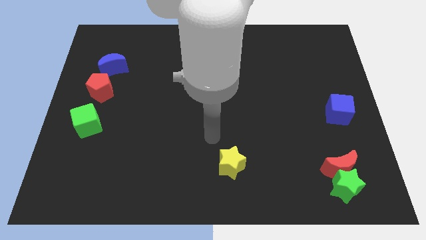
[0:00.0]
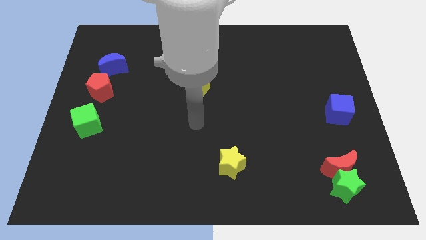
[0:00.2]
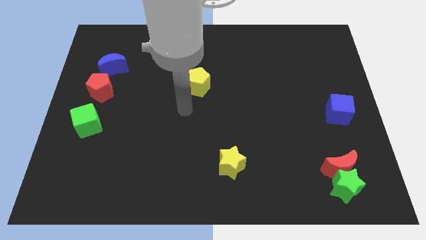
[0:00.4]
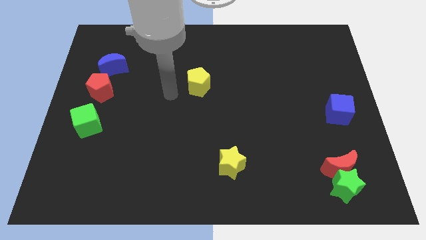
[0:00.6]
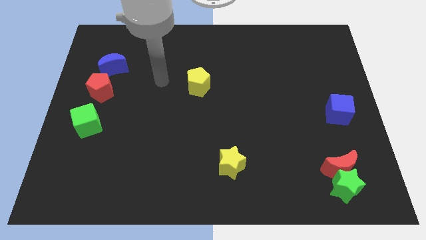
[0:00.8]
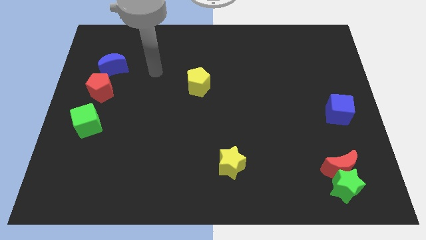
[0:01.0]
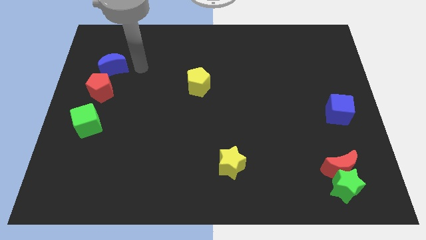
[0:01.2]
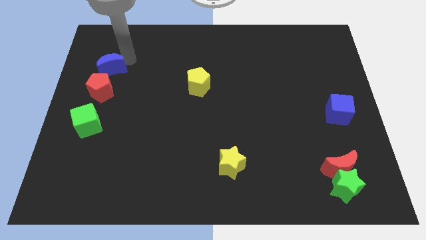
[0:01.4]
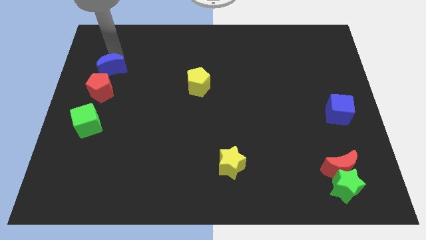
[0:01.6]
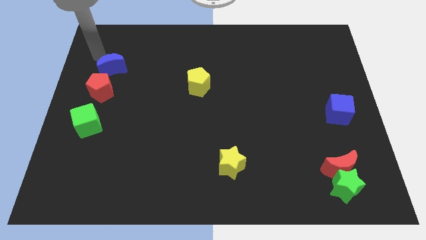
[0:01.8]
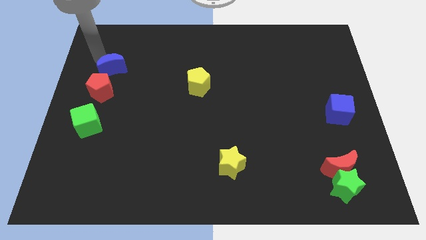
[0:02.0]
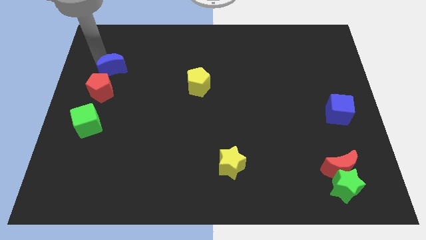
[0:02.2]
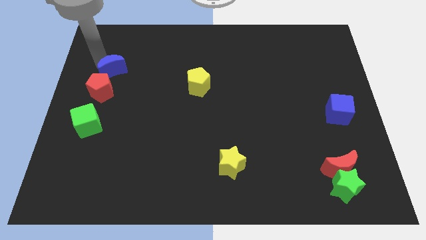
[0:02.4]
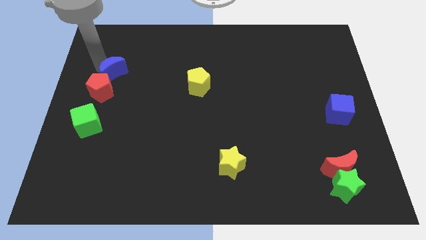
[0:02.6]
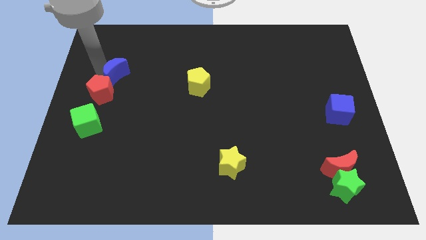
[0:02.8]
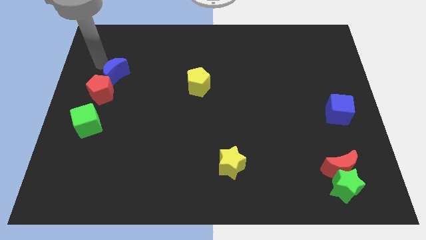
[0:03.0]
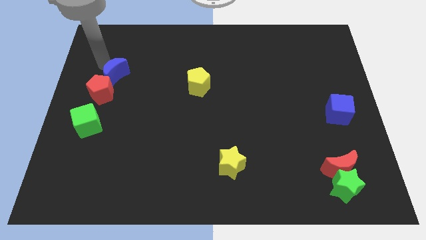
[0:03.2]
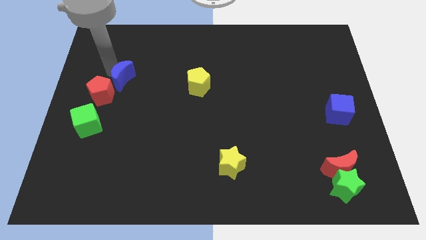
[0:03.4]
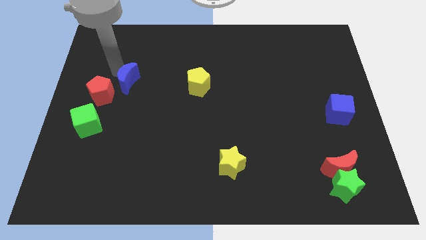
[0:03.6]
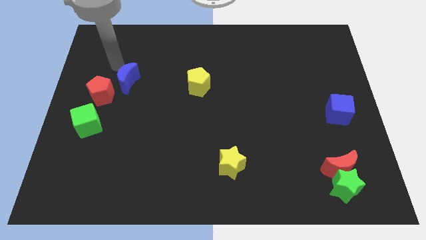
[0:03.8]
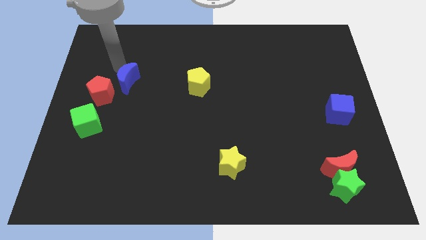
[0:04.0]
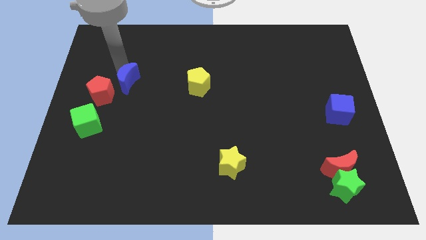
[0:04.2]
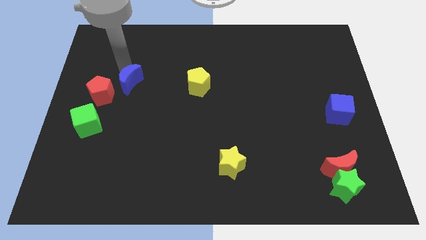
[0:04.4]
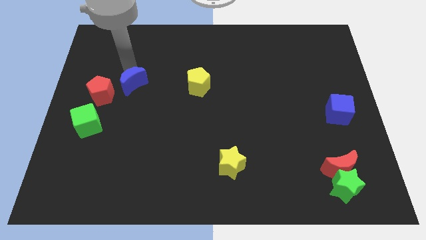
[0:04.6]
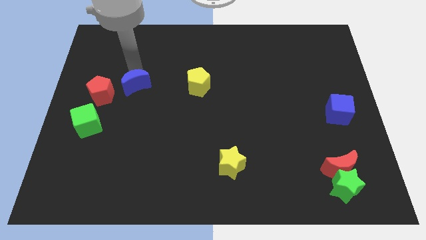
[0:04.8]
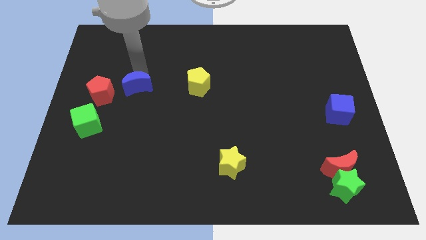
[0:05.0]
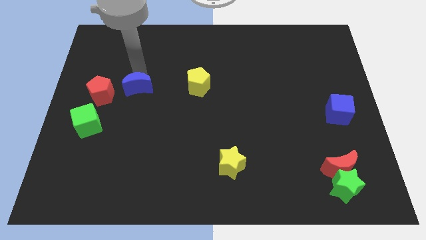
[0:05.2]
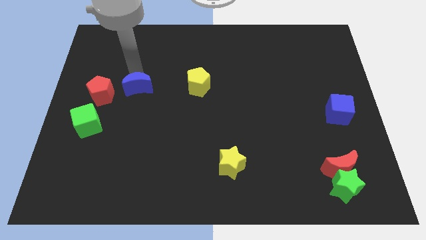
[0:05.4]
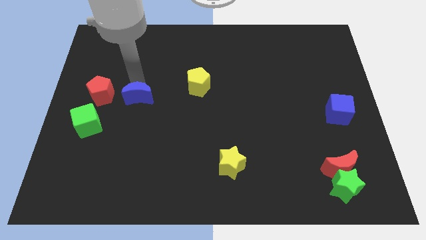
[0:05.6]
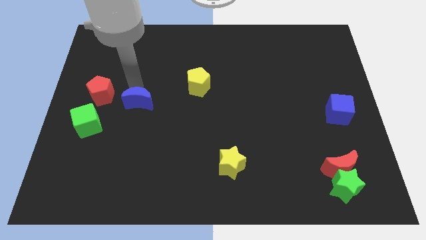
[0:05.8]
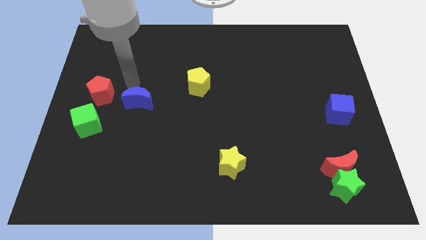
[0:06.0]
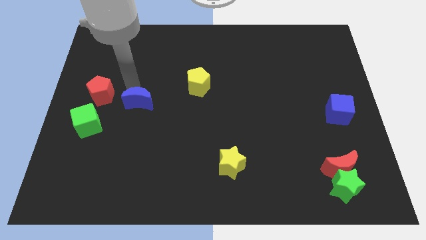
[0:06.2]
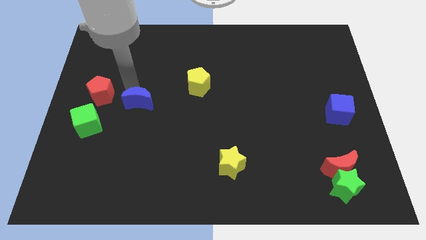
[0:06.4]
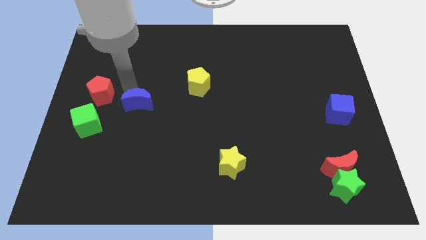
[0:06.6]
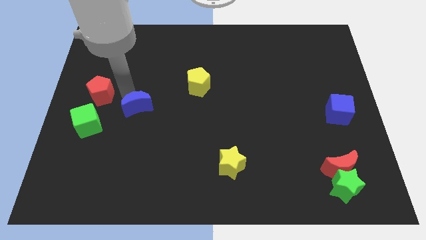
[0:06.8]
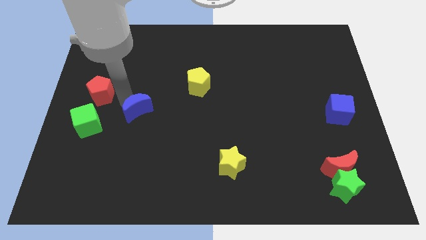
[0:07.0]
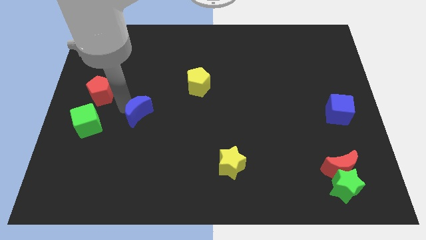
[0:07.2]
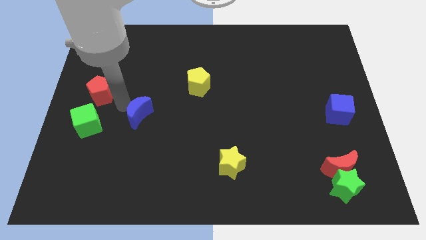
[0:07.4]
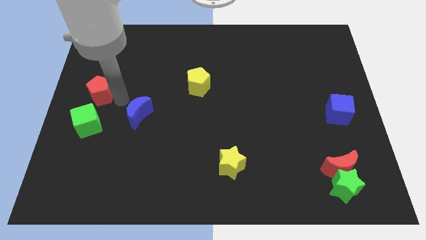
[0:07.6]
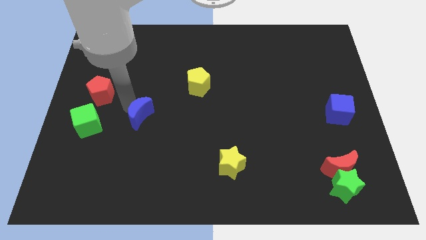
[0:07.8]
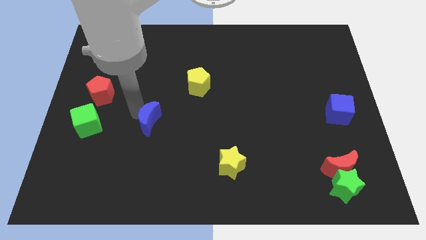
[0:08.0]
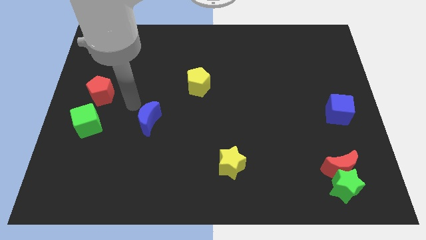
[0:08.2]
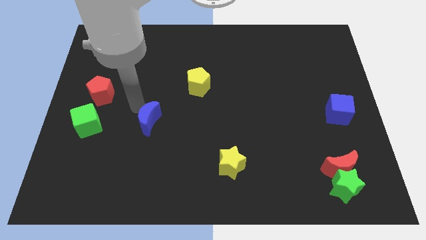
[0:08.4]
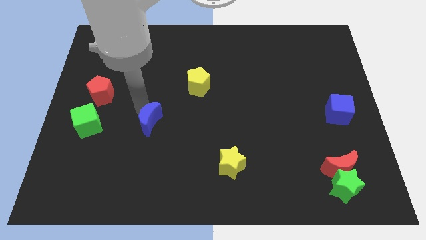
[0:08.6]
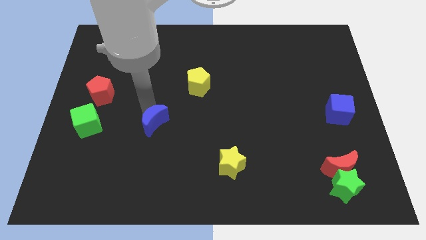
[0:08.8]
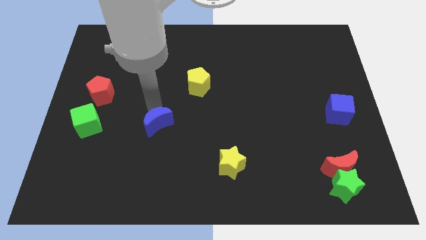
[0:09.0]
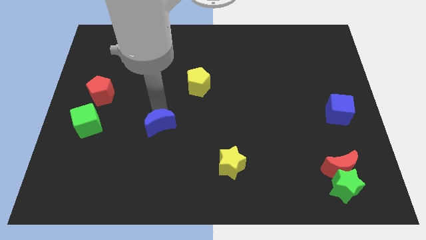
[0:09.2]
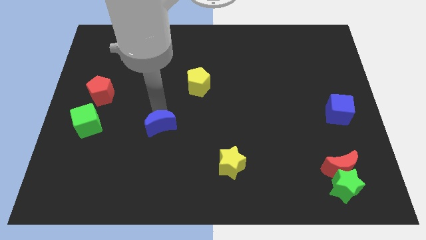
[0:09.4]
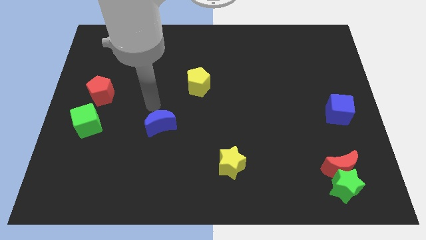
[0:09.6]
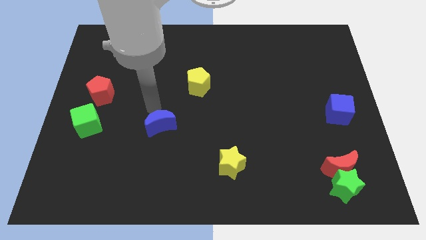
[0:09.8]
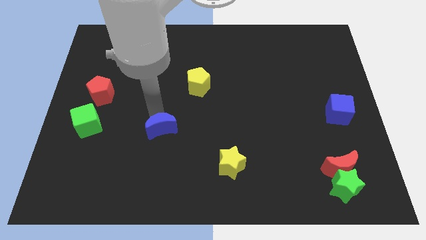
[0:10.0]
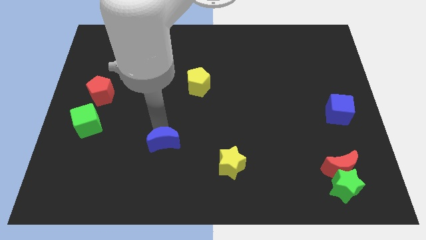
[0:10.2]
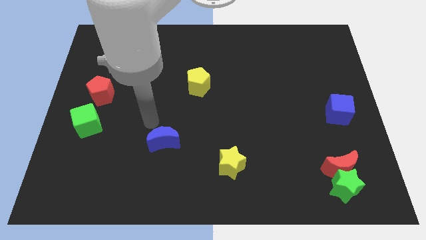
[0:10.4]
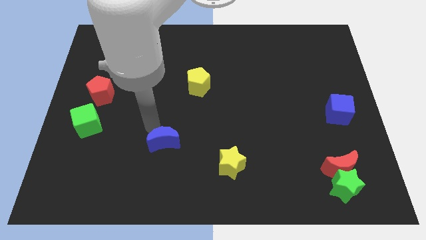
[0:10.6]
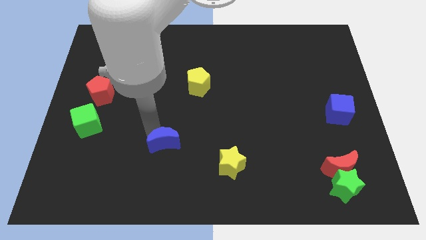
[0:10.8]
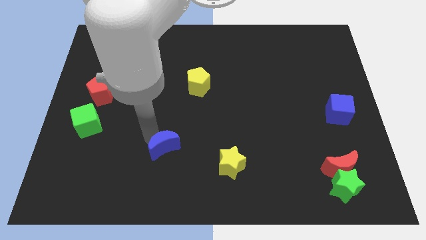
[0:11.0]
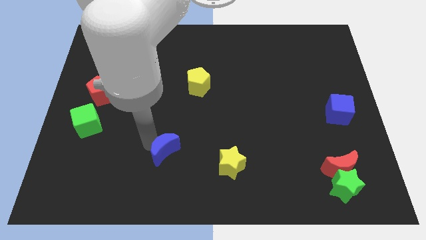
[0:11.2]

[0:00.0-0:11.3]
push the blue moon to the left side of the yellow star

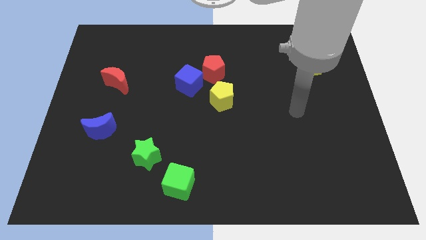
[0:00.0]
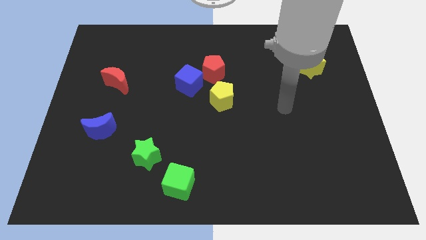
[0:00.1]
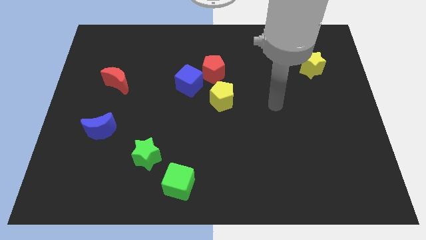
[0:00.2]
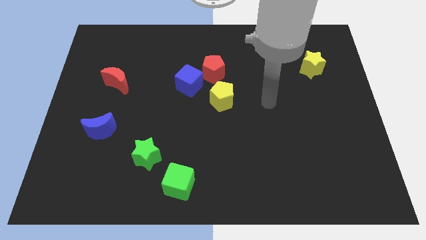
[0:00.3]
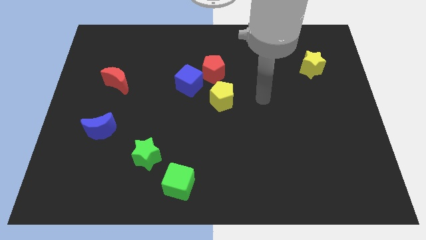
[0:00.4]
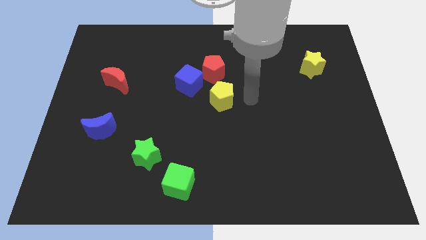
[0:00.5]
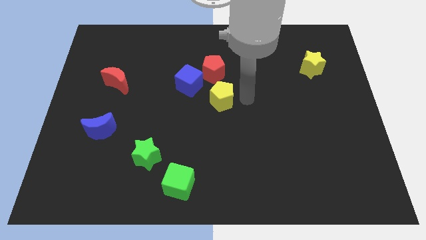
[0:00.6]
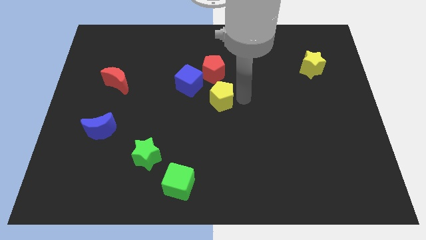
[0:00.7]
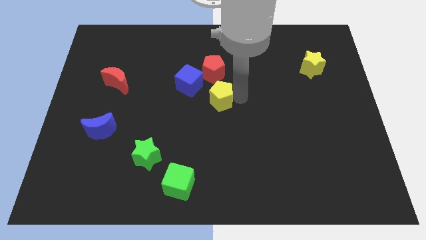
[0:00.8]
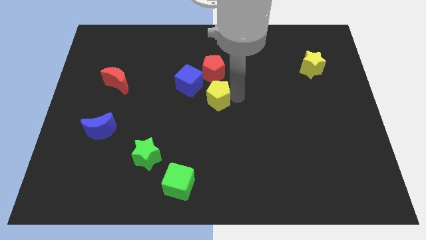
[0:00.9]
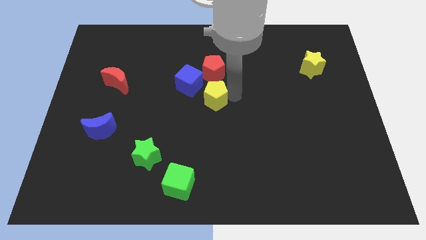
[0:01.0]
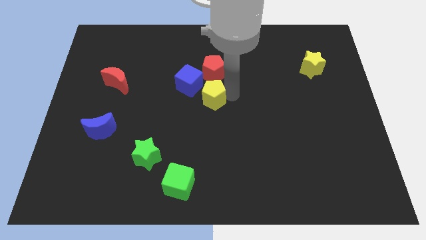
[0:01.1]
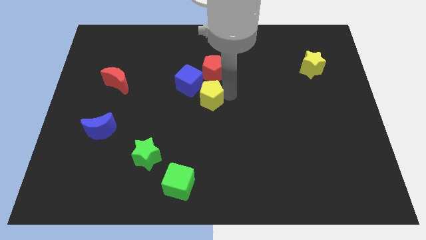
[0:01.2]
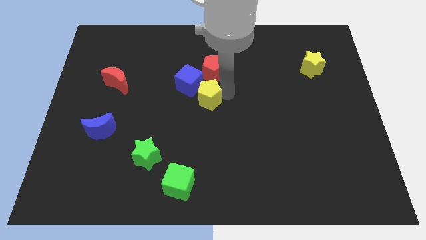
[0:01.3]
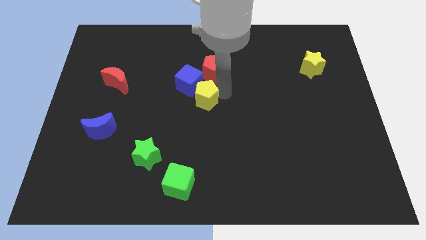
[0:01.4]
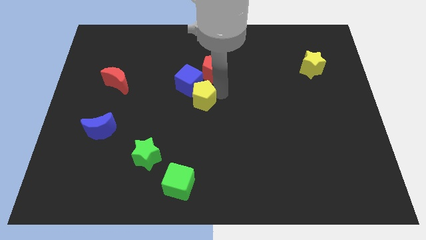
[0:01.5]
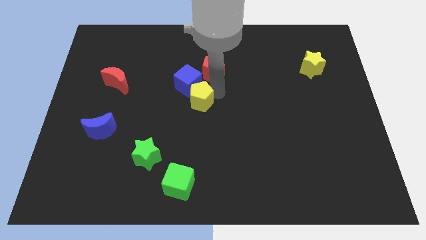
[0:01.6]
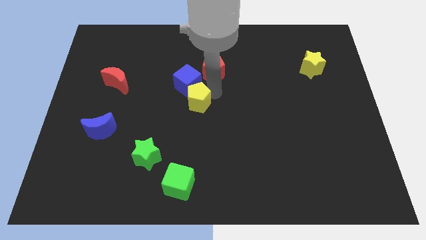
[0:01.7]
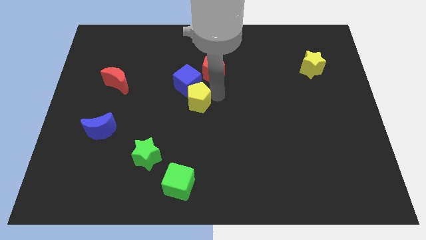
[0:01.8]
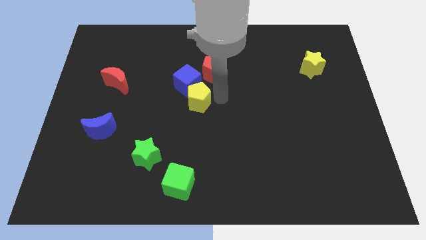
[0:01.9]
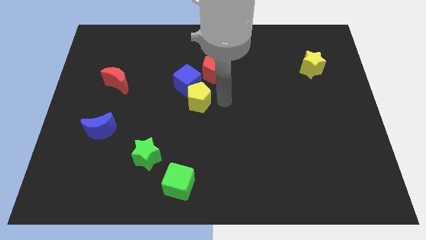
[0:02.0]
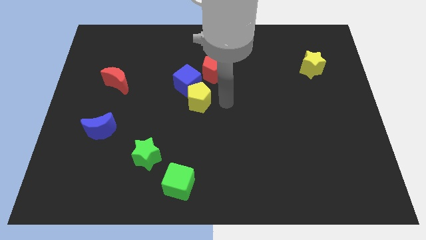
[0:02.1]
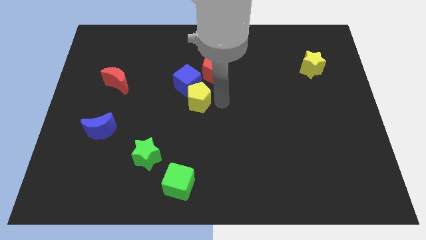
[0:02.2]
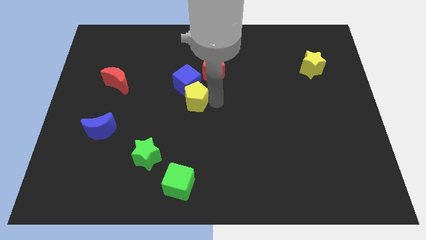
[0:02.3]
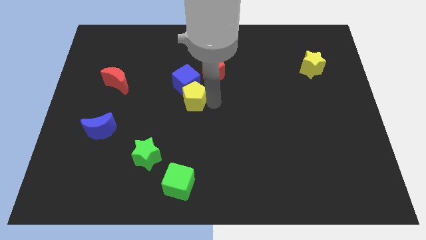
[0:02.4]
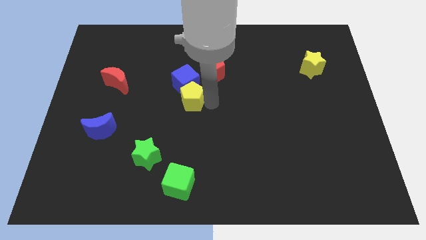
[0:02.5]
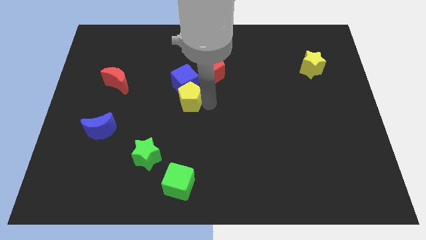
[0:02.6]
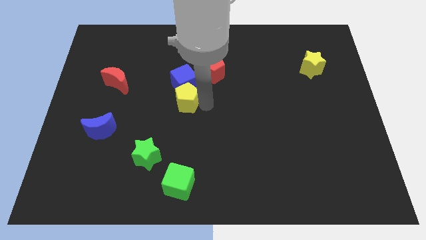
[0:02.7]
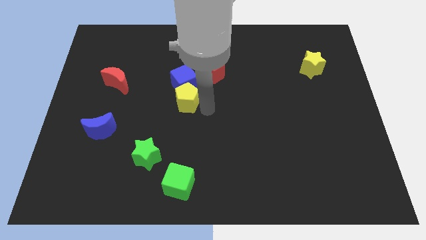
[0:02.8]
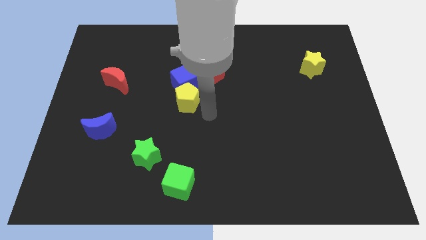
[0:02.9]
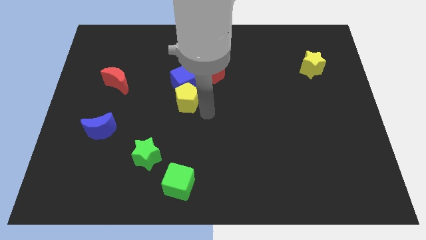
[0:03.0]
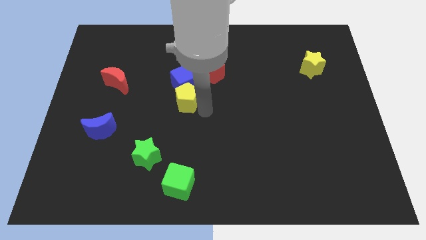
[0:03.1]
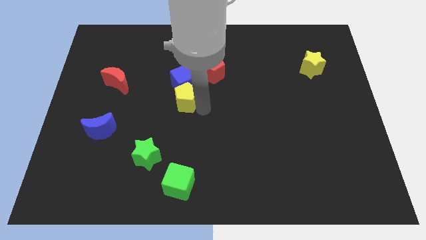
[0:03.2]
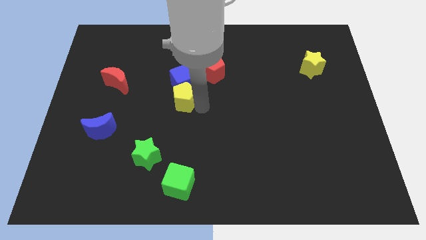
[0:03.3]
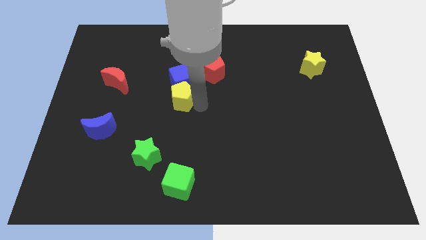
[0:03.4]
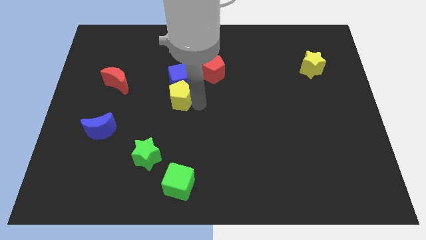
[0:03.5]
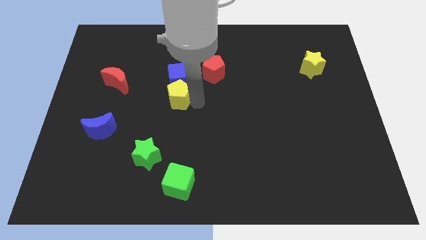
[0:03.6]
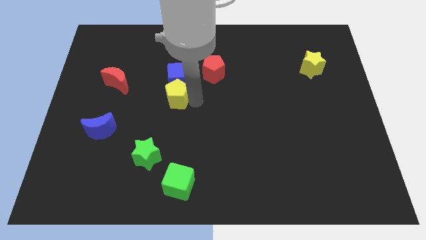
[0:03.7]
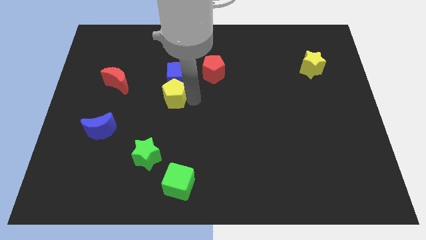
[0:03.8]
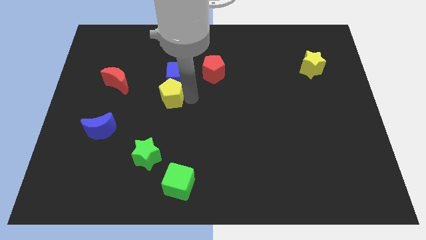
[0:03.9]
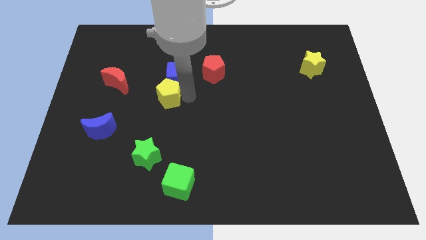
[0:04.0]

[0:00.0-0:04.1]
move the yellow pentagon to the right of the red moon
